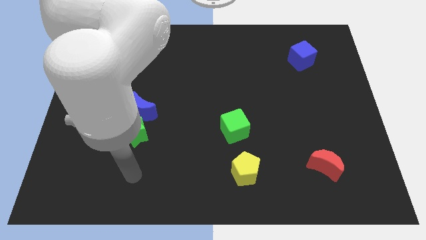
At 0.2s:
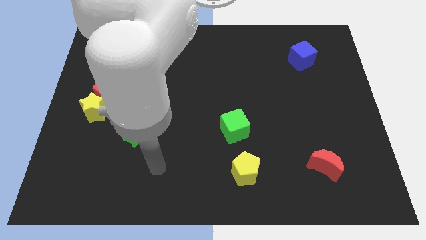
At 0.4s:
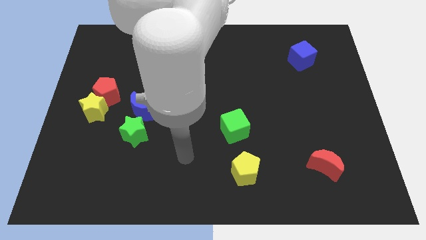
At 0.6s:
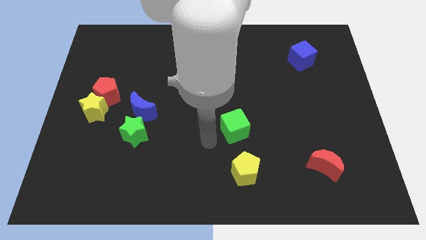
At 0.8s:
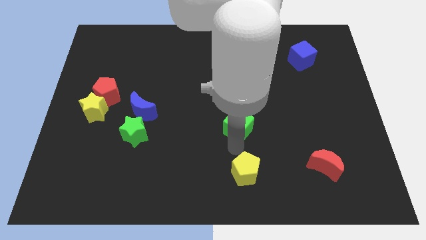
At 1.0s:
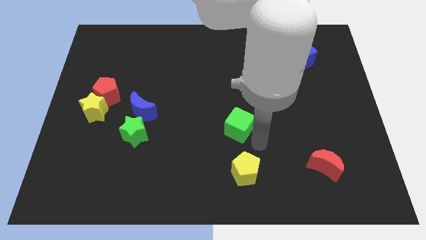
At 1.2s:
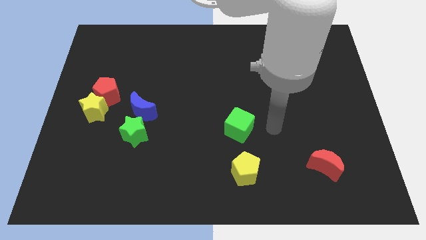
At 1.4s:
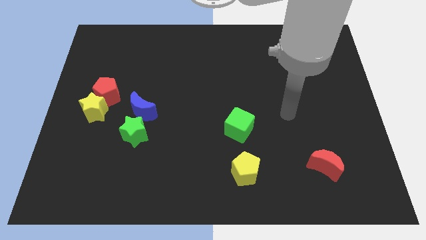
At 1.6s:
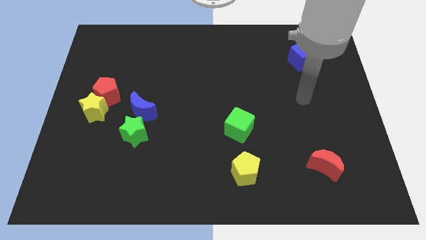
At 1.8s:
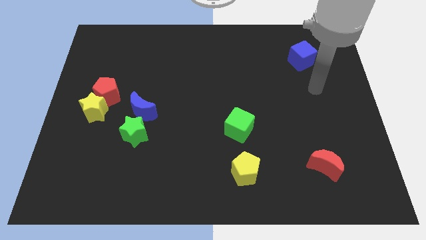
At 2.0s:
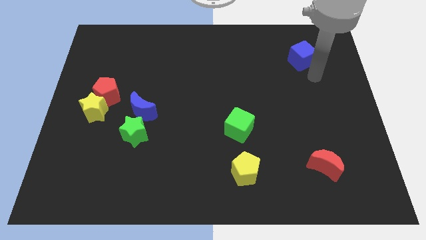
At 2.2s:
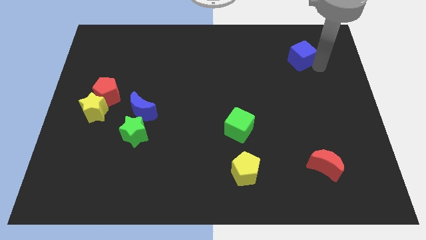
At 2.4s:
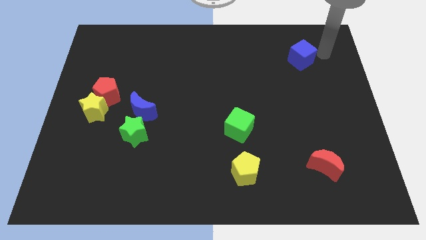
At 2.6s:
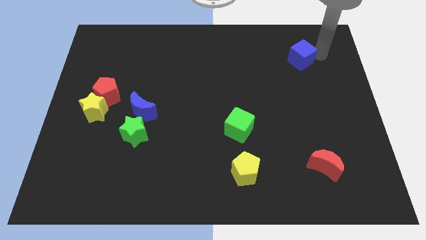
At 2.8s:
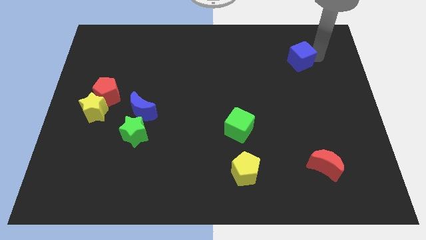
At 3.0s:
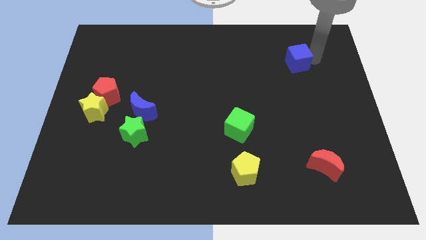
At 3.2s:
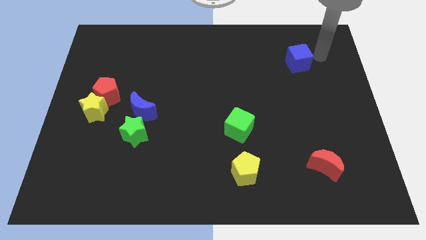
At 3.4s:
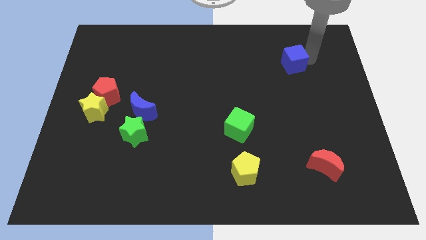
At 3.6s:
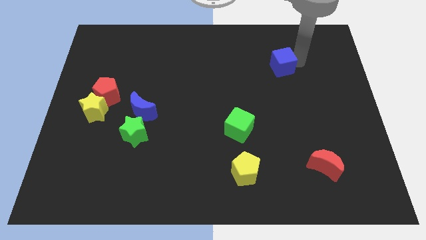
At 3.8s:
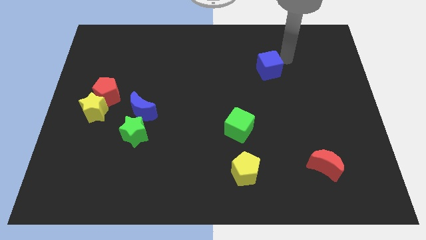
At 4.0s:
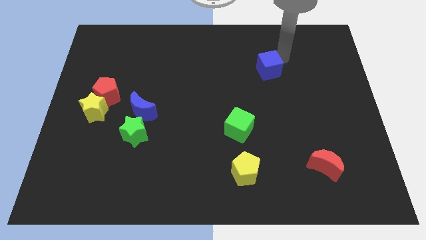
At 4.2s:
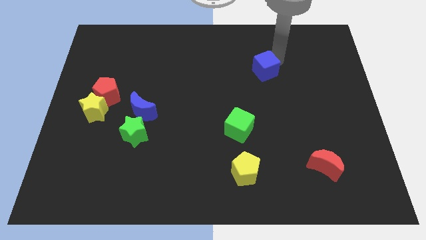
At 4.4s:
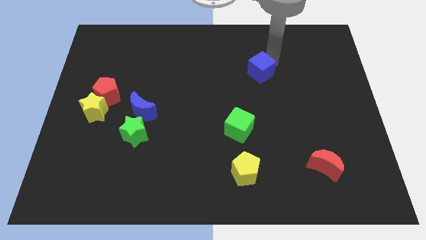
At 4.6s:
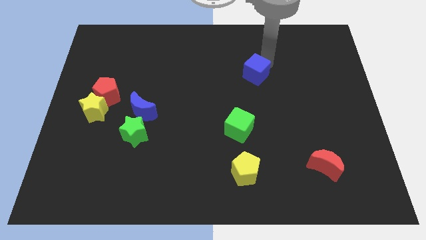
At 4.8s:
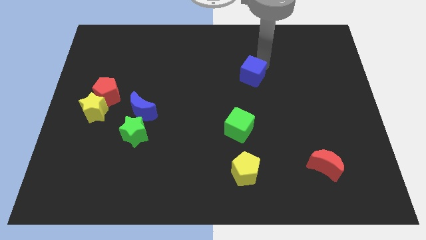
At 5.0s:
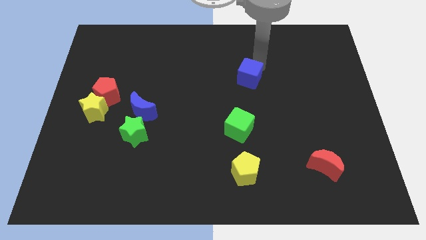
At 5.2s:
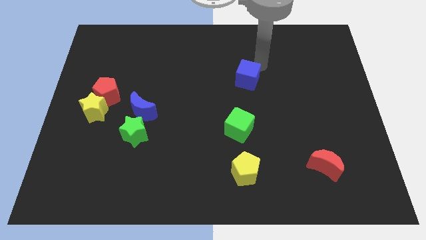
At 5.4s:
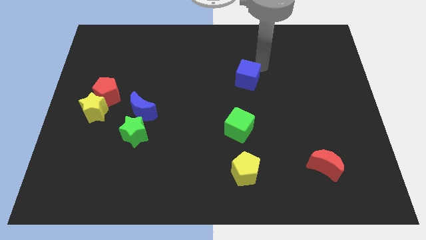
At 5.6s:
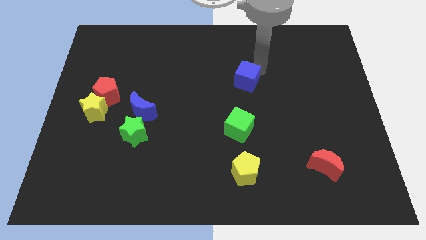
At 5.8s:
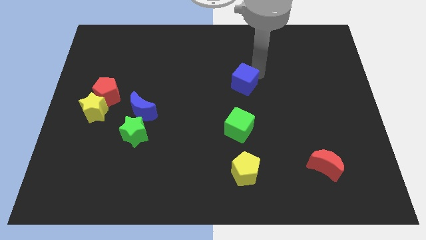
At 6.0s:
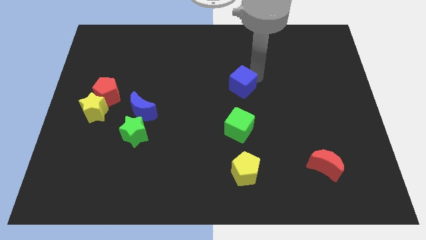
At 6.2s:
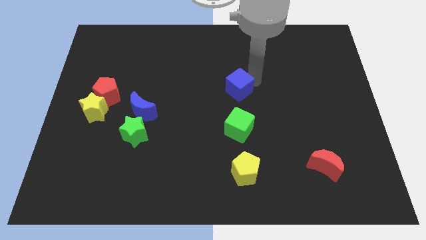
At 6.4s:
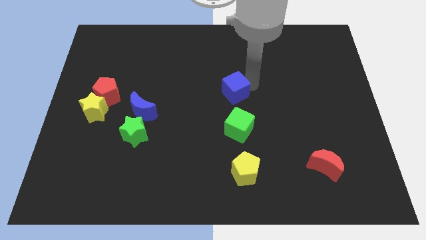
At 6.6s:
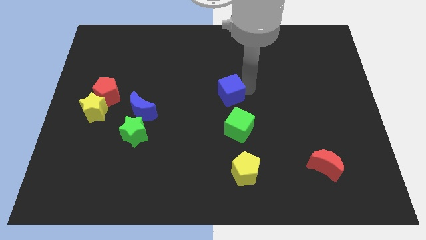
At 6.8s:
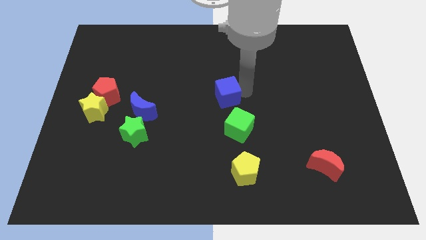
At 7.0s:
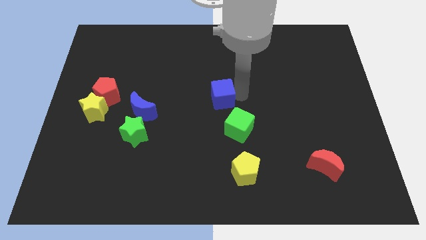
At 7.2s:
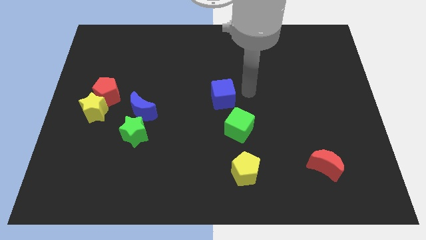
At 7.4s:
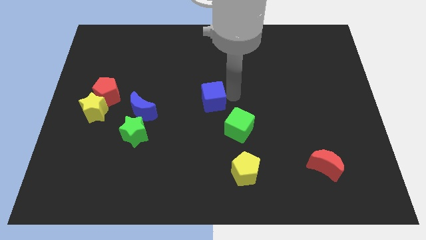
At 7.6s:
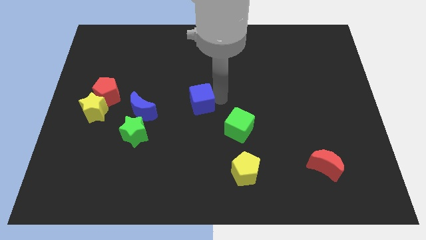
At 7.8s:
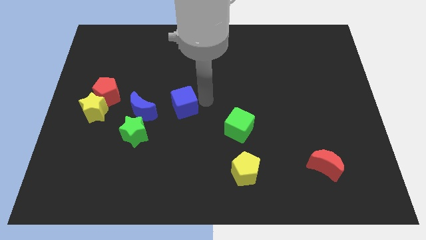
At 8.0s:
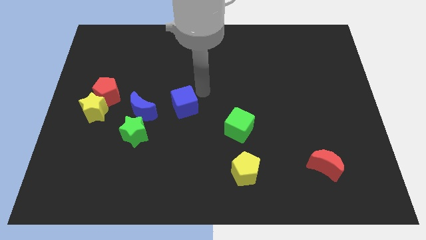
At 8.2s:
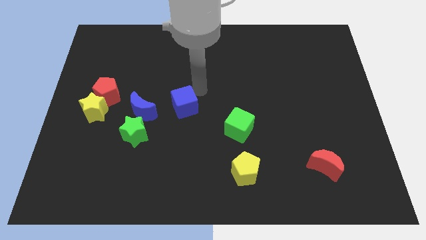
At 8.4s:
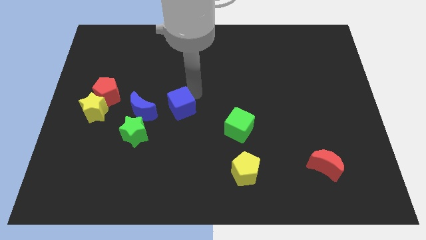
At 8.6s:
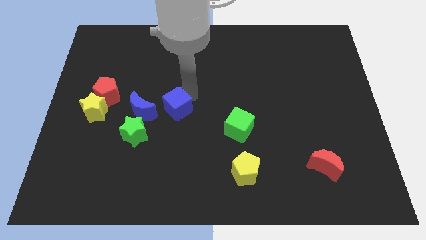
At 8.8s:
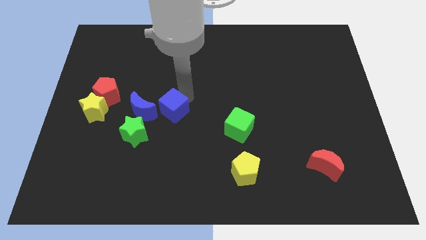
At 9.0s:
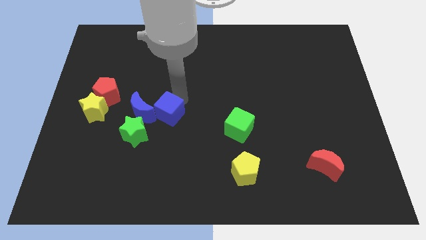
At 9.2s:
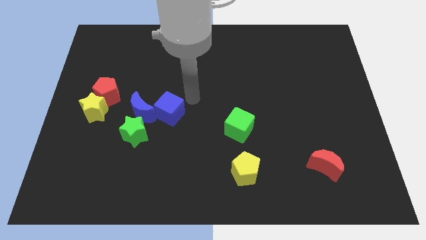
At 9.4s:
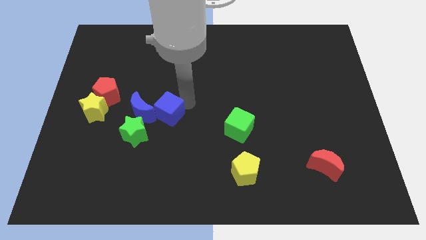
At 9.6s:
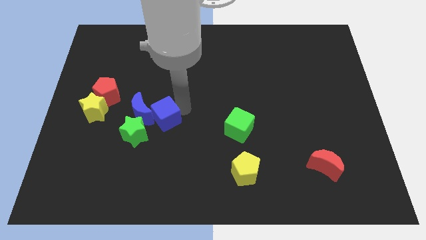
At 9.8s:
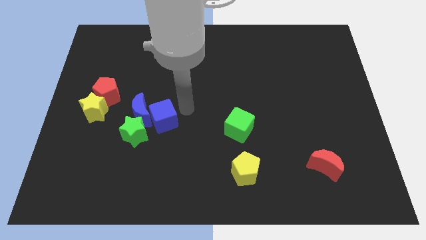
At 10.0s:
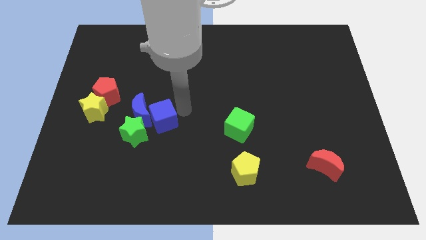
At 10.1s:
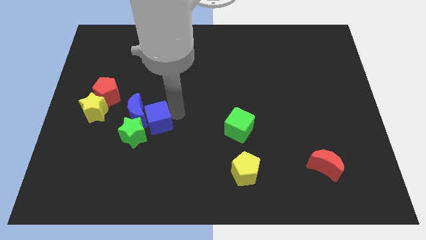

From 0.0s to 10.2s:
push the blue cube close to the green star

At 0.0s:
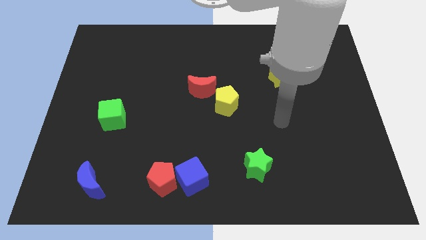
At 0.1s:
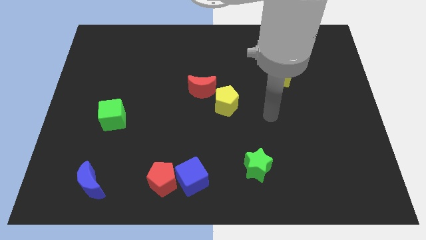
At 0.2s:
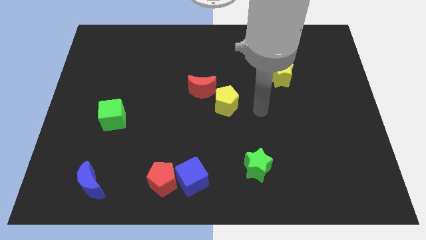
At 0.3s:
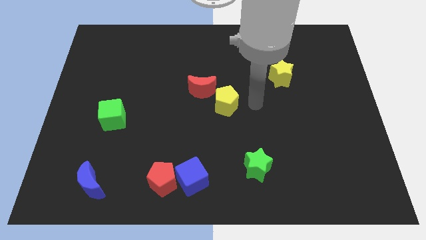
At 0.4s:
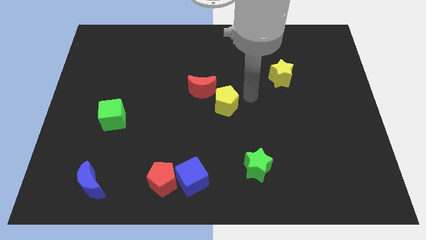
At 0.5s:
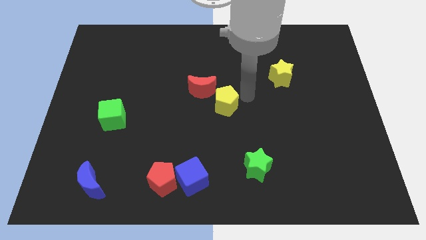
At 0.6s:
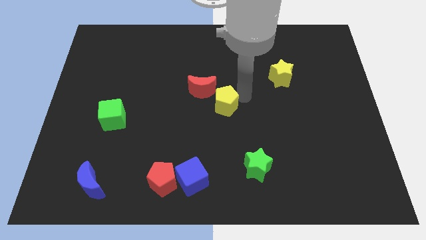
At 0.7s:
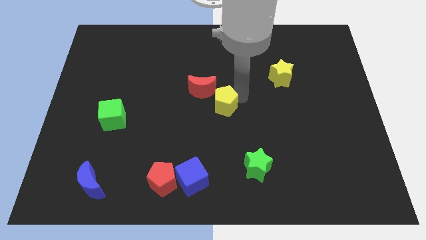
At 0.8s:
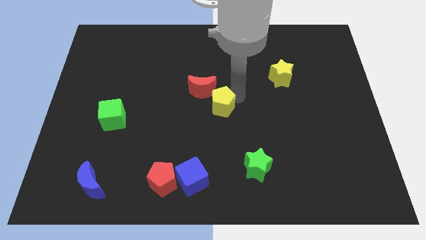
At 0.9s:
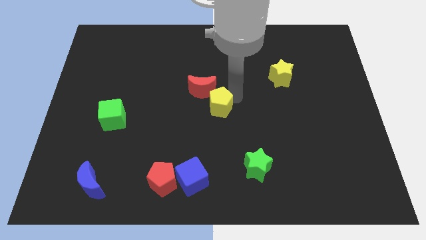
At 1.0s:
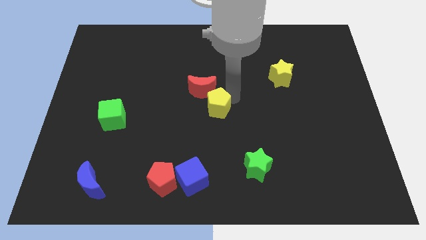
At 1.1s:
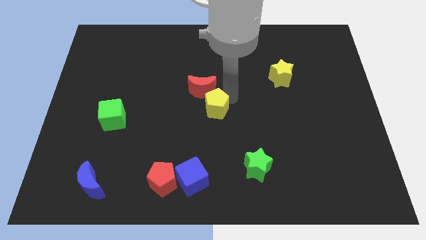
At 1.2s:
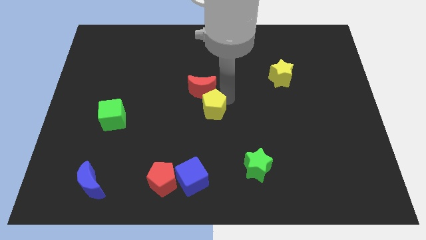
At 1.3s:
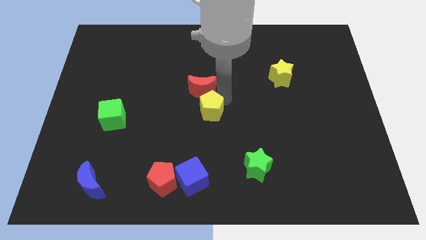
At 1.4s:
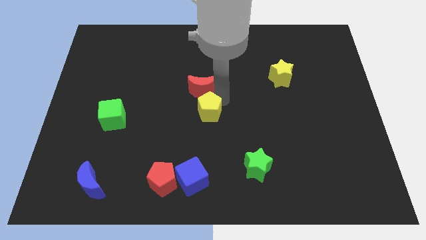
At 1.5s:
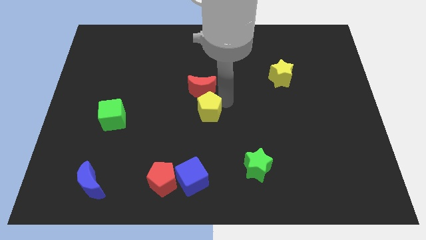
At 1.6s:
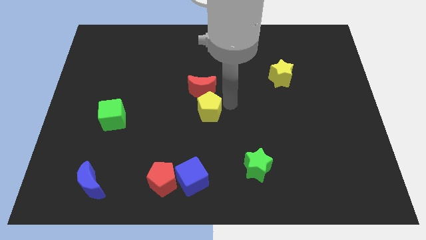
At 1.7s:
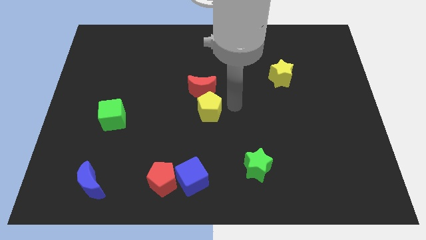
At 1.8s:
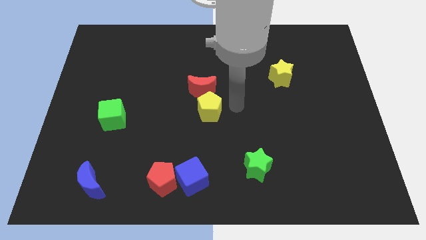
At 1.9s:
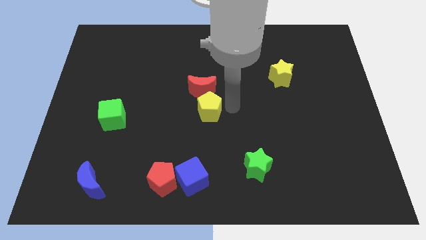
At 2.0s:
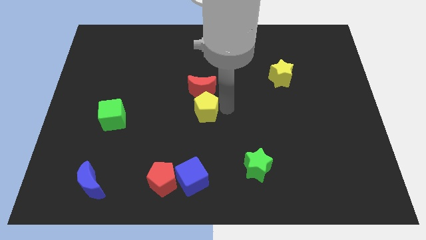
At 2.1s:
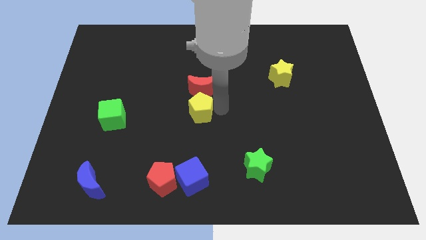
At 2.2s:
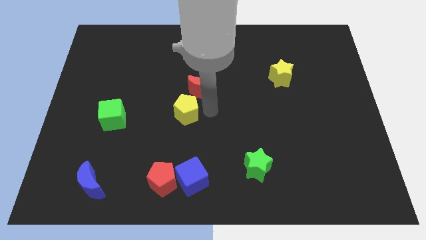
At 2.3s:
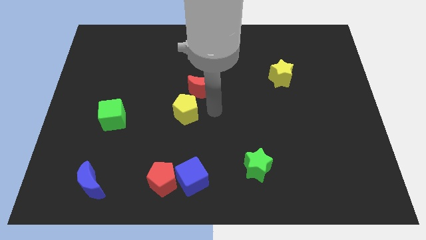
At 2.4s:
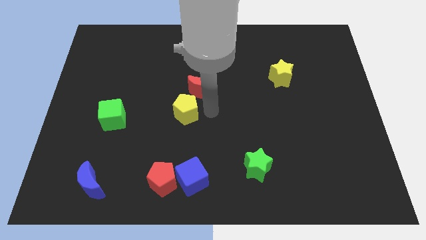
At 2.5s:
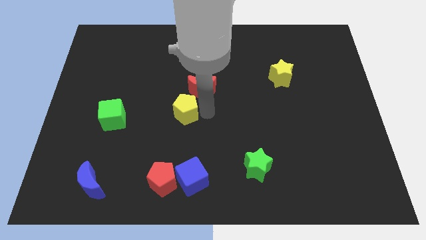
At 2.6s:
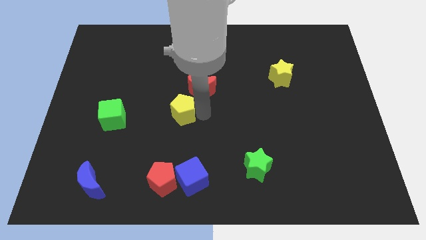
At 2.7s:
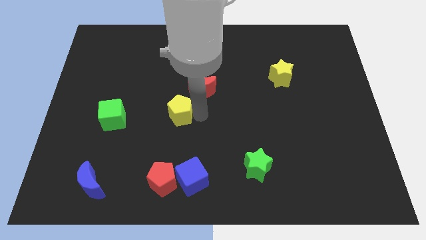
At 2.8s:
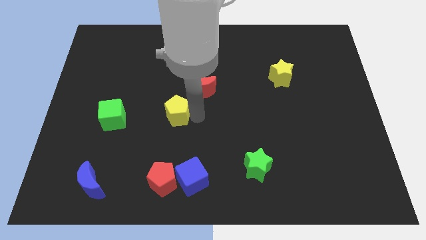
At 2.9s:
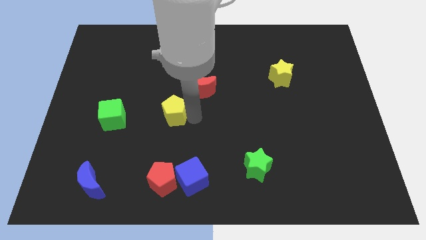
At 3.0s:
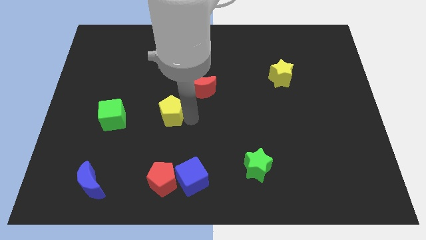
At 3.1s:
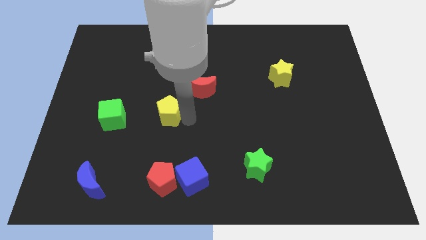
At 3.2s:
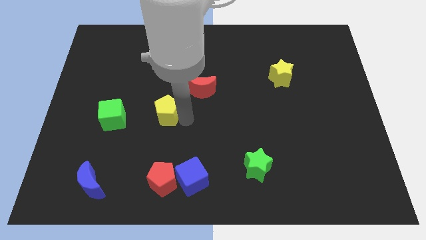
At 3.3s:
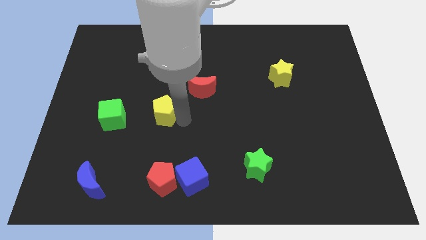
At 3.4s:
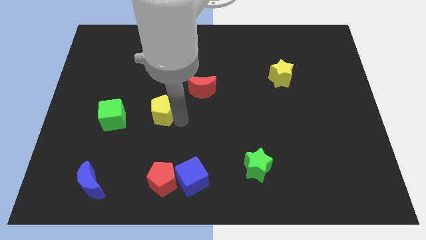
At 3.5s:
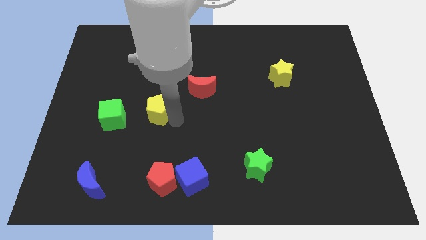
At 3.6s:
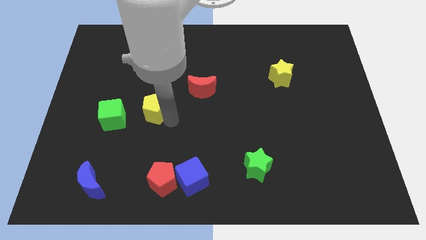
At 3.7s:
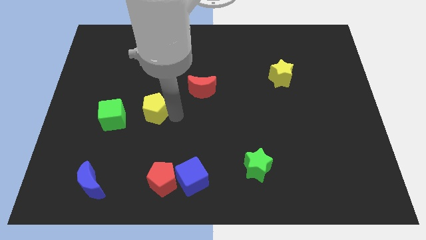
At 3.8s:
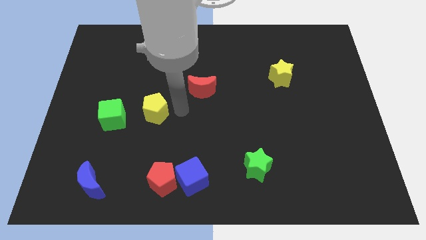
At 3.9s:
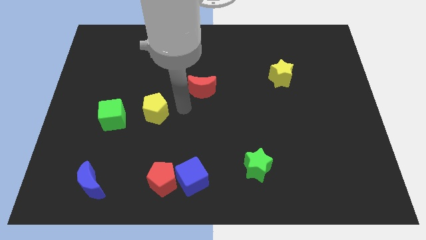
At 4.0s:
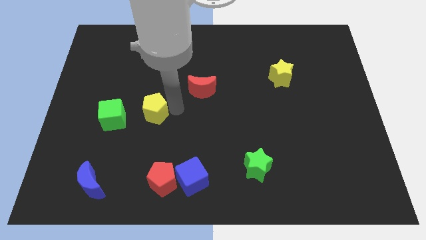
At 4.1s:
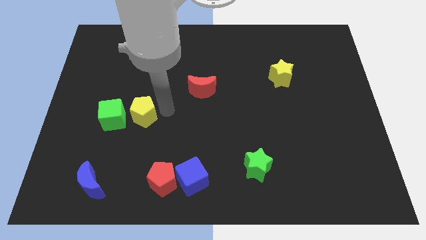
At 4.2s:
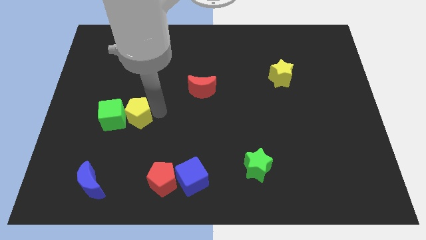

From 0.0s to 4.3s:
put the yellow pentagon to the green cube
